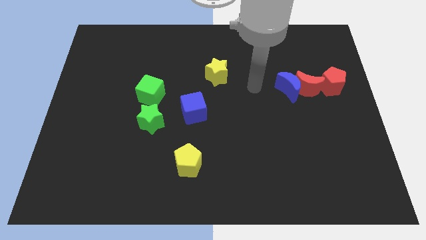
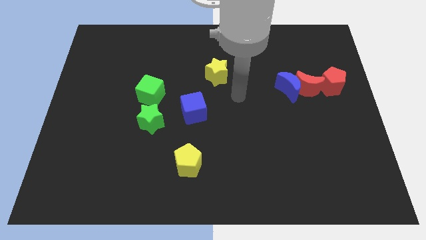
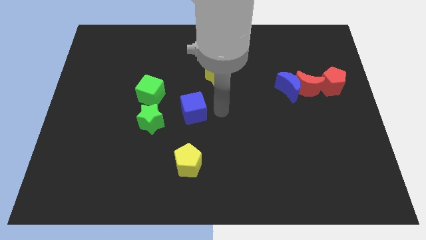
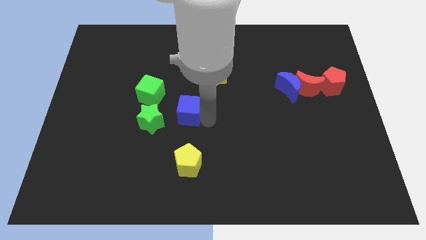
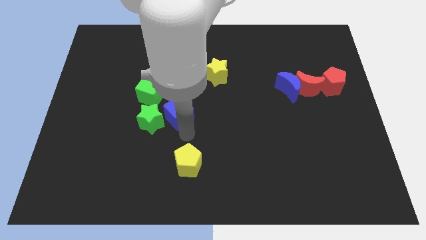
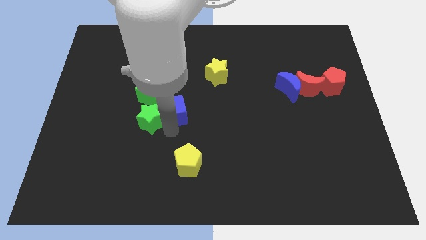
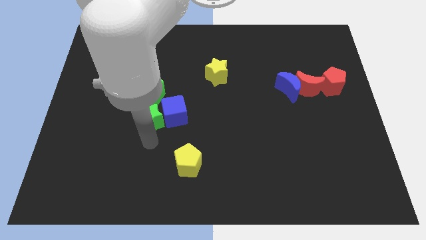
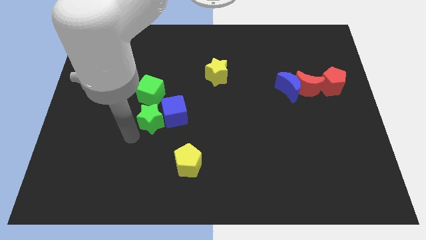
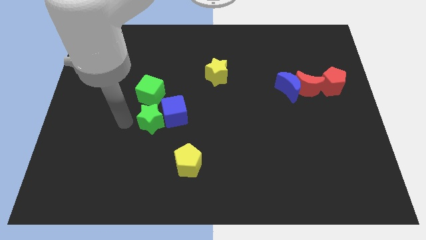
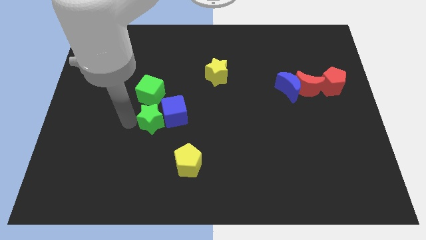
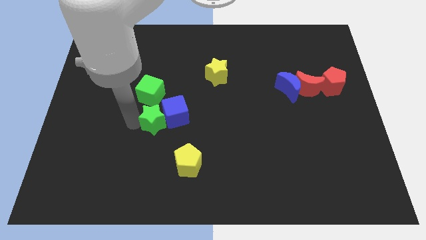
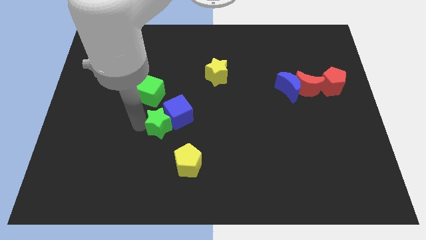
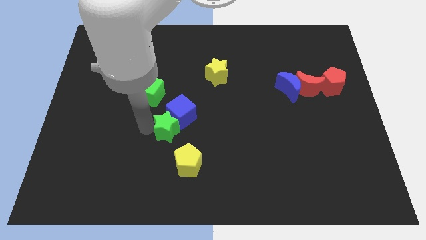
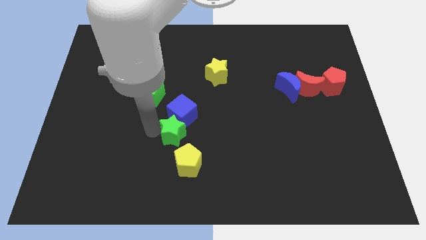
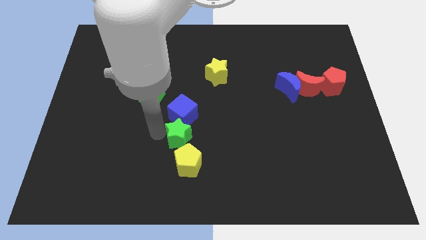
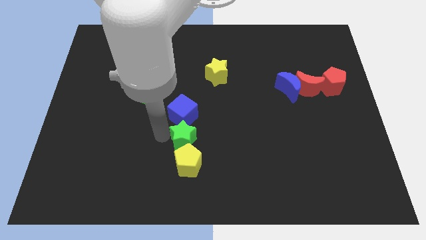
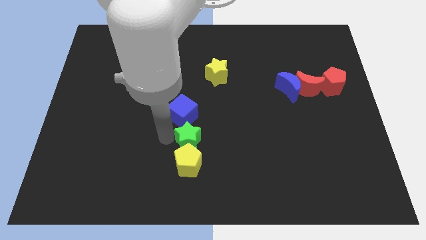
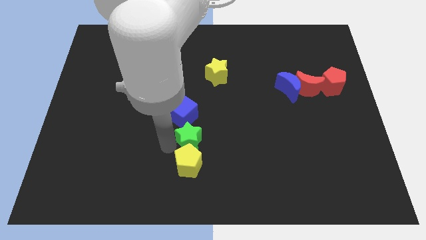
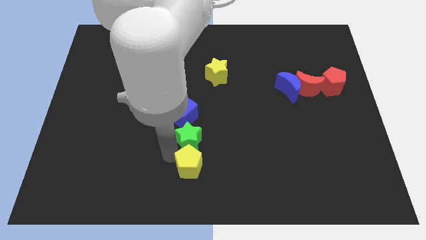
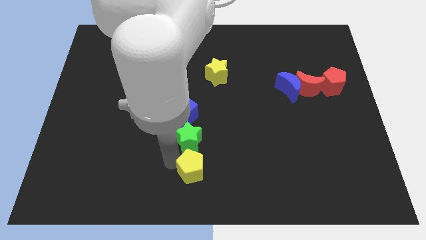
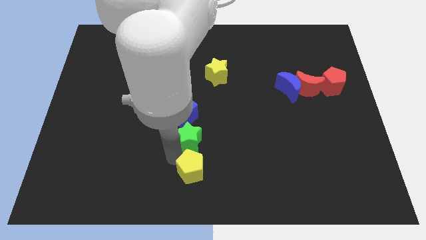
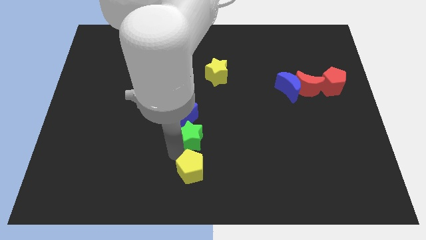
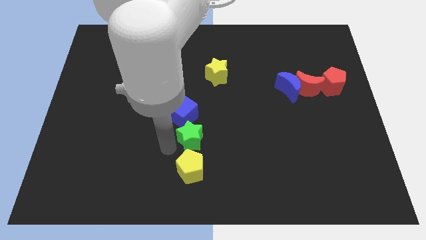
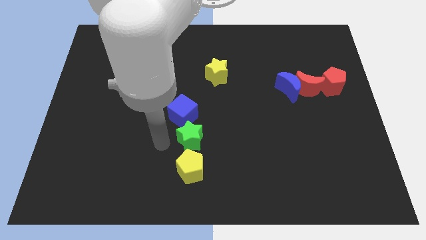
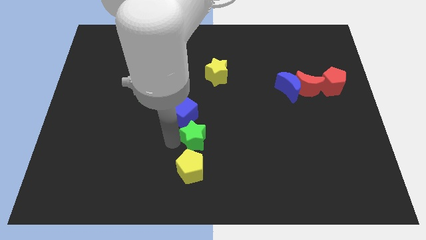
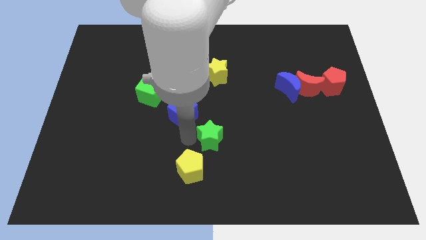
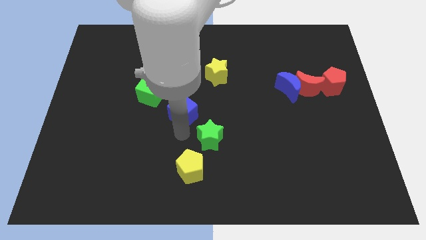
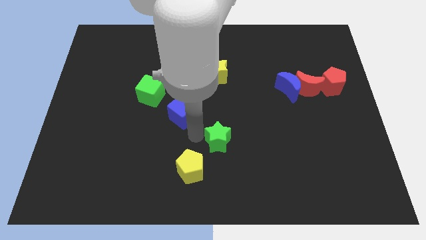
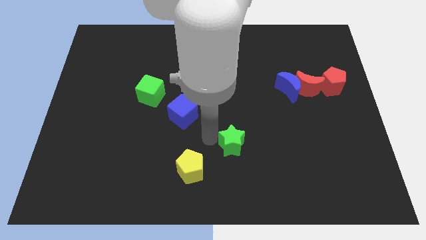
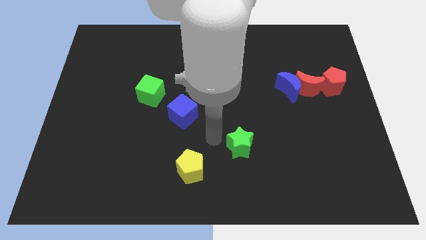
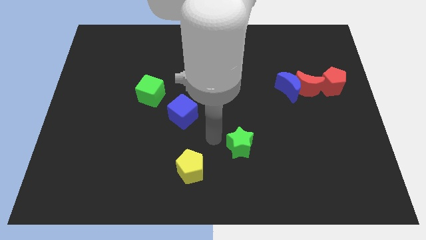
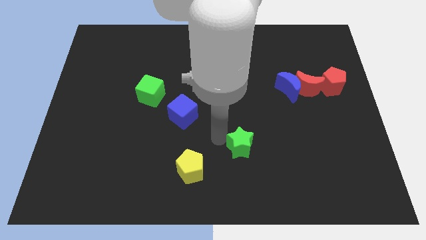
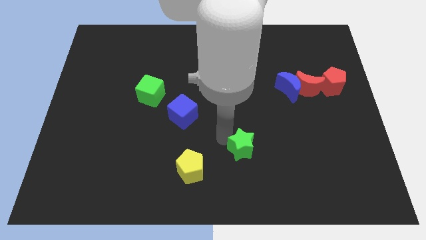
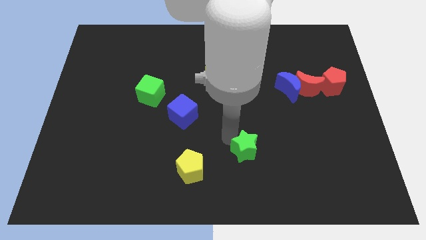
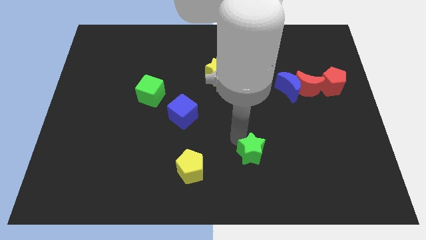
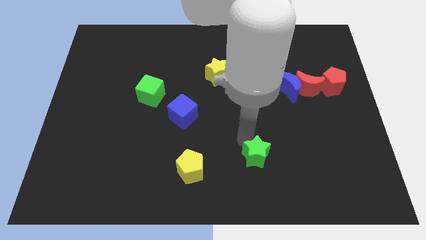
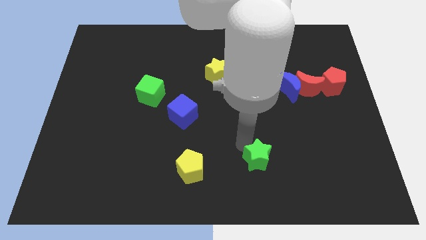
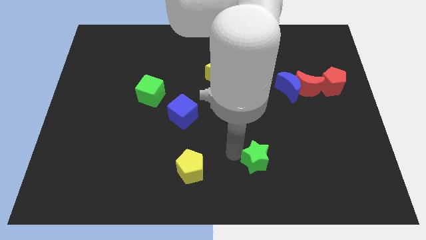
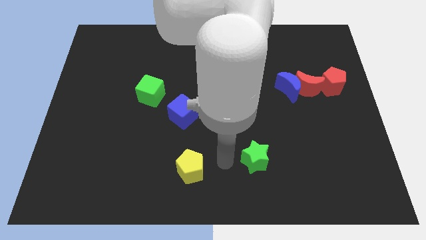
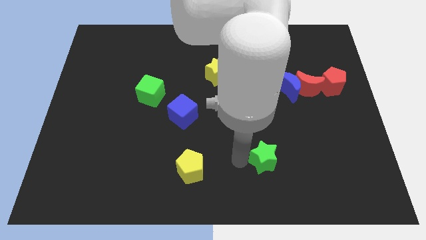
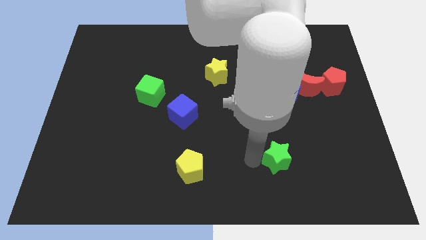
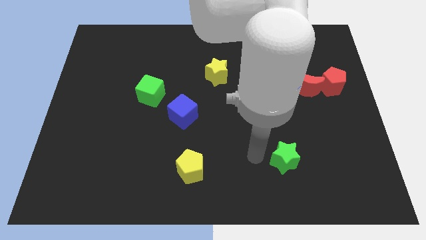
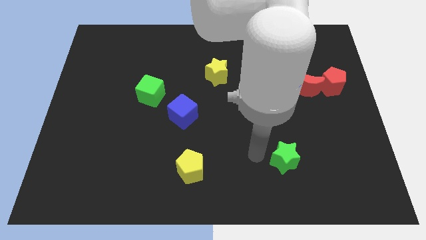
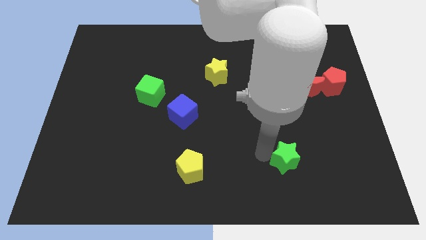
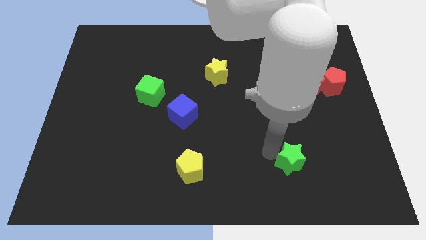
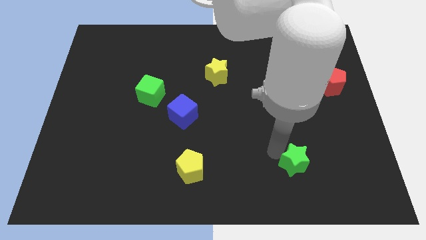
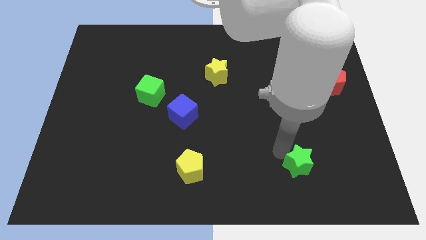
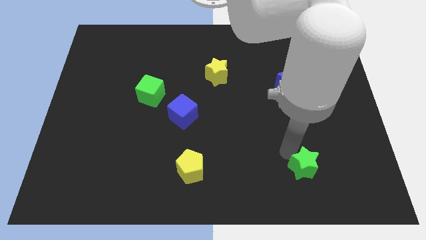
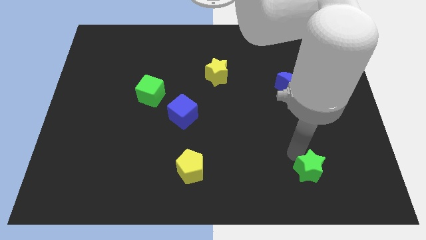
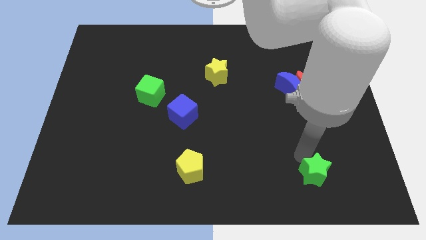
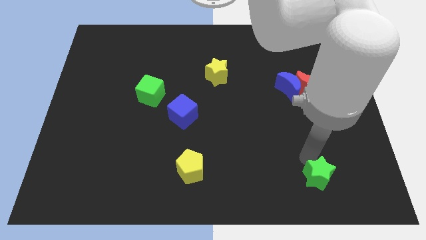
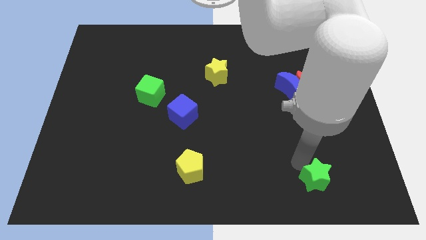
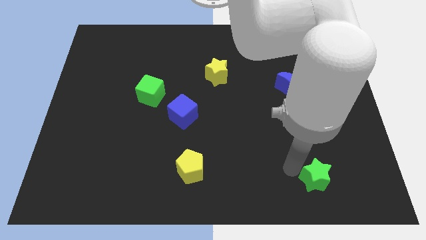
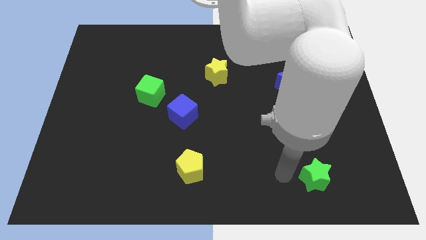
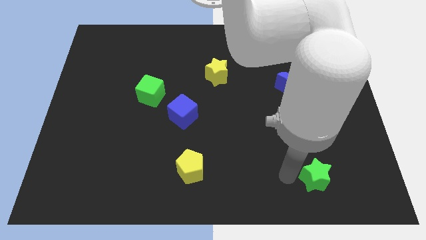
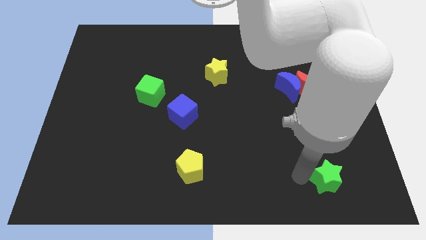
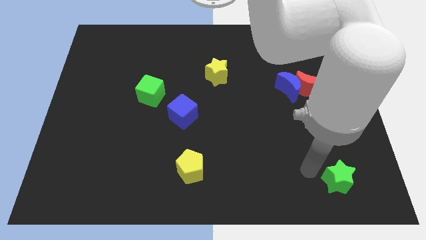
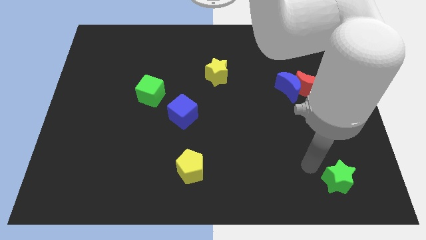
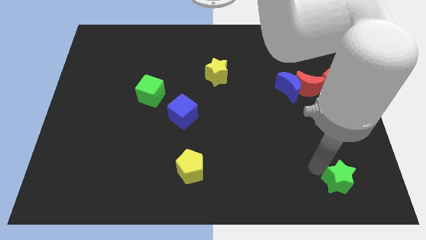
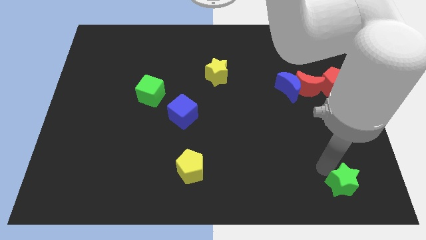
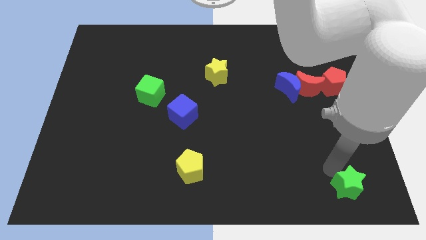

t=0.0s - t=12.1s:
move the green star to the bottom right corner

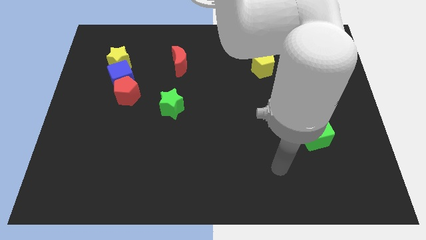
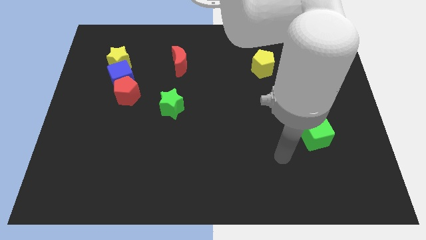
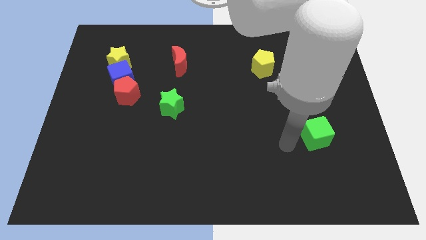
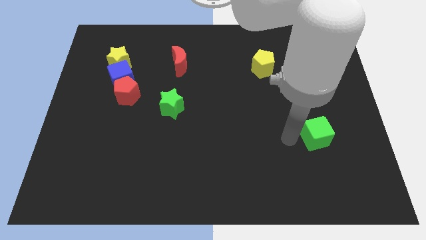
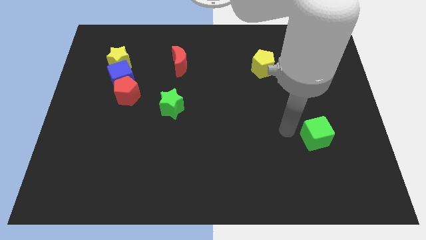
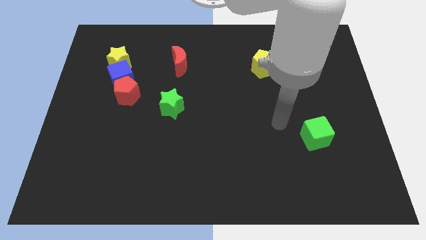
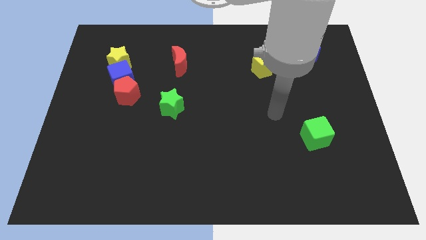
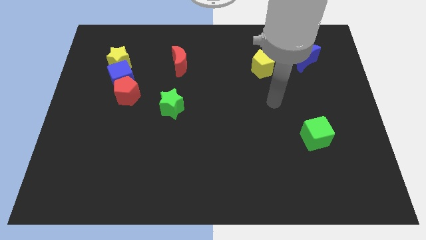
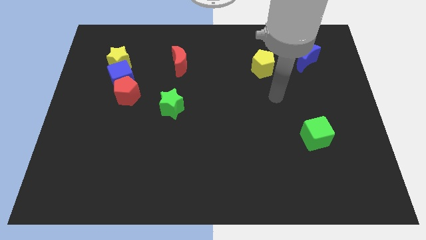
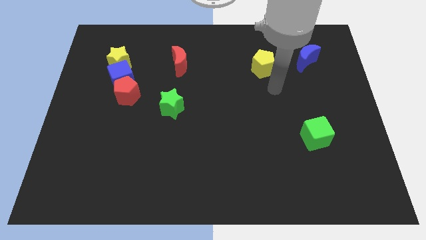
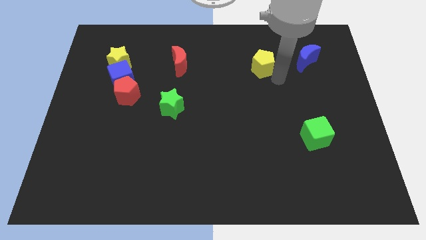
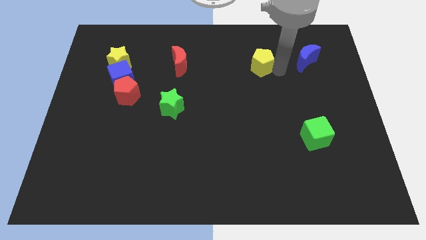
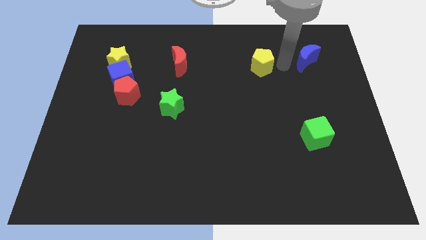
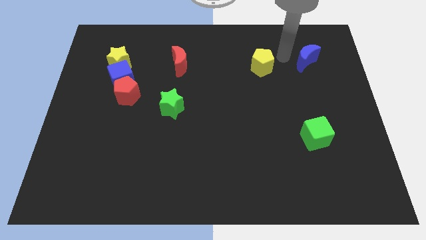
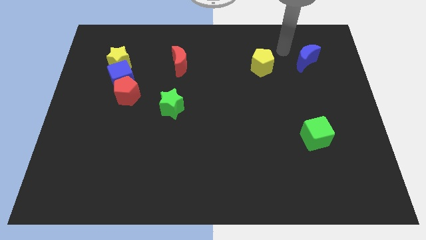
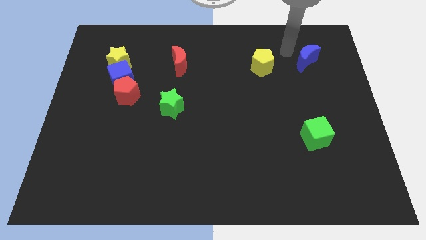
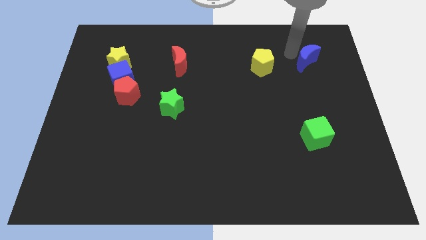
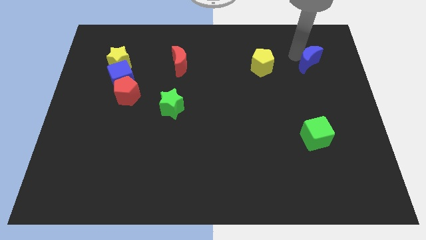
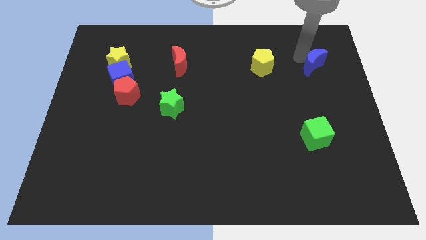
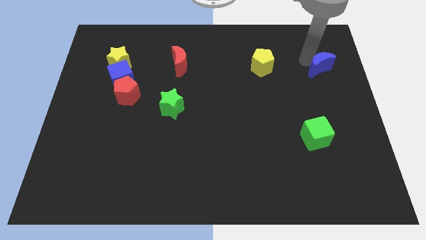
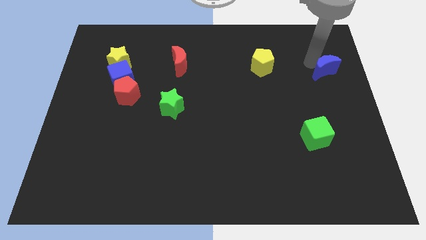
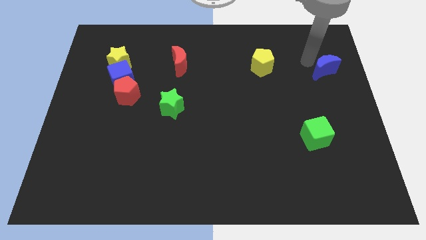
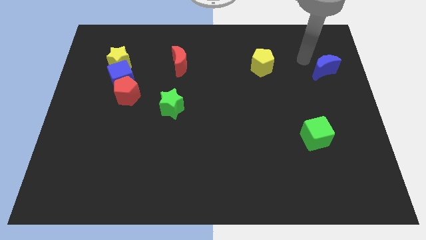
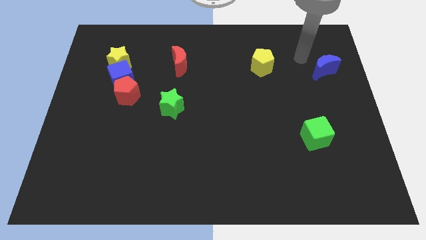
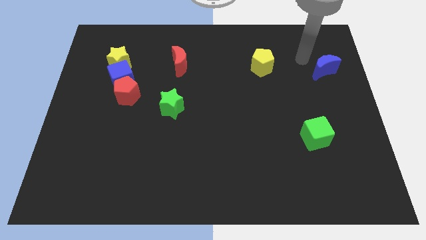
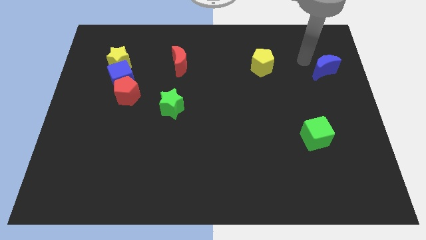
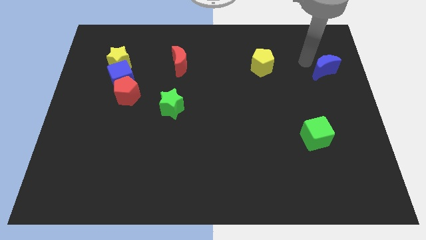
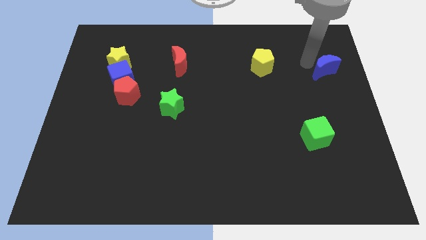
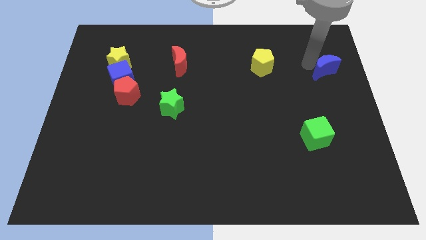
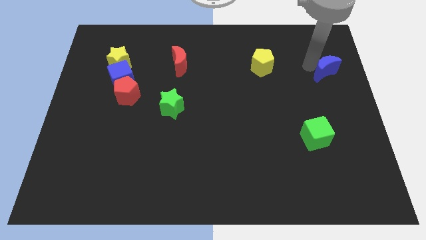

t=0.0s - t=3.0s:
move the blue moon to the center right
